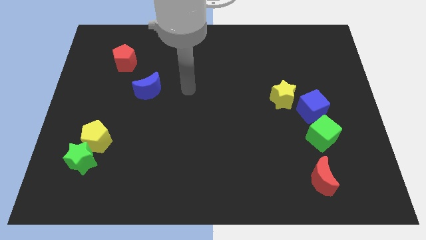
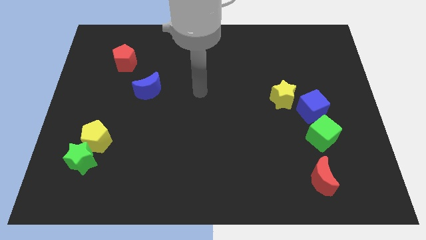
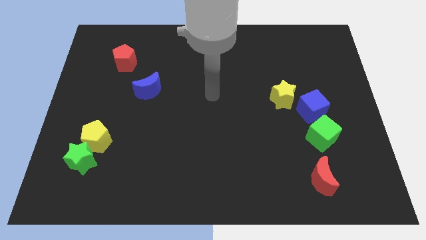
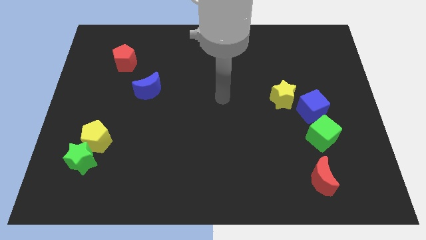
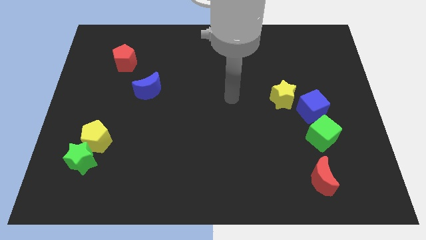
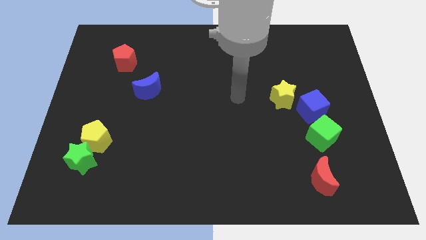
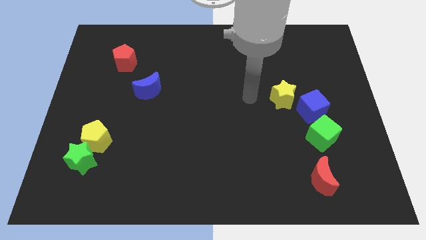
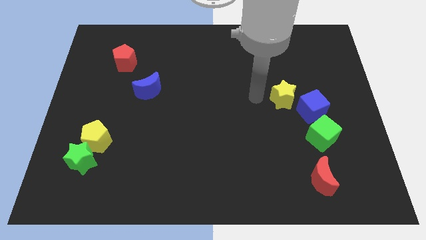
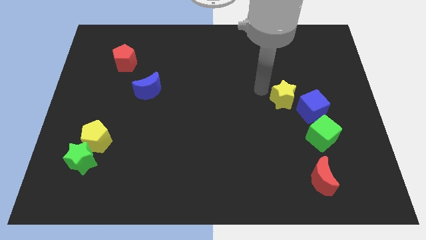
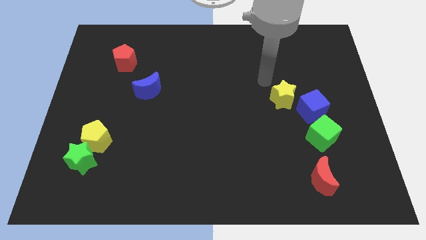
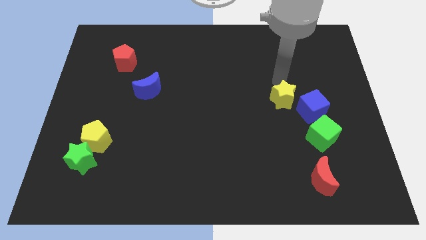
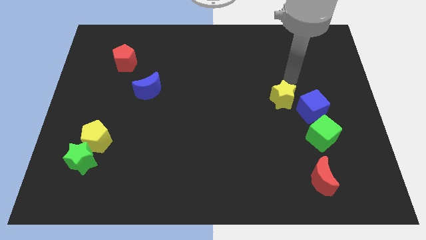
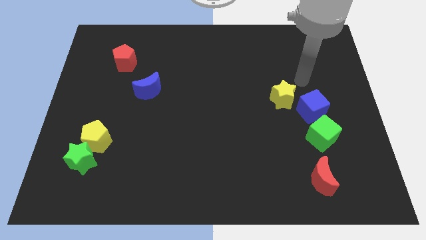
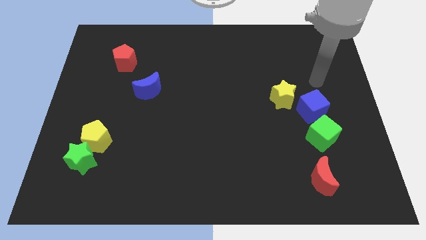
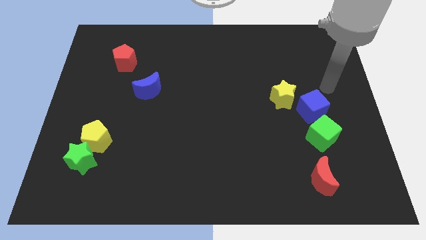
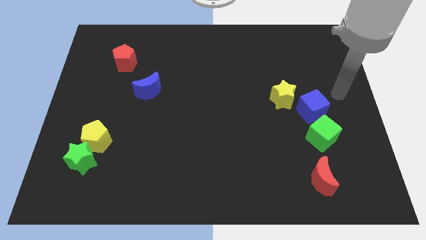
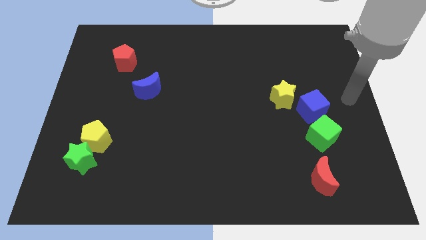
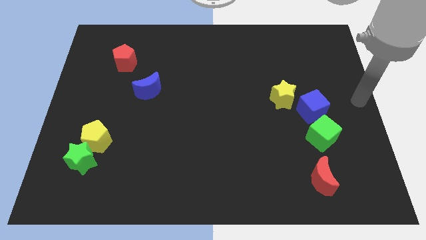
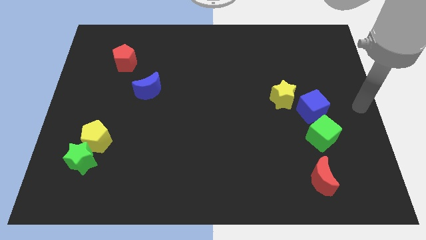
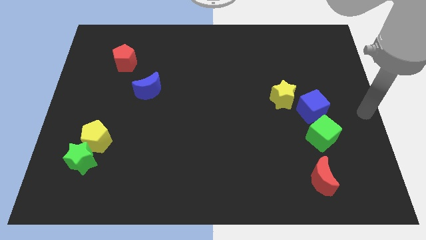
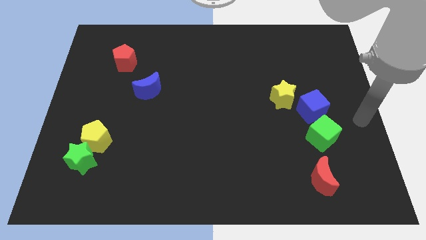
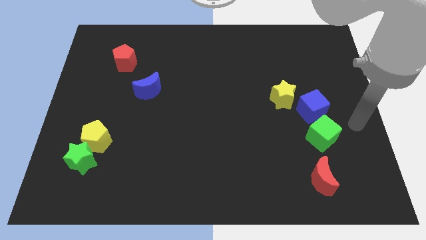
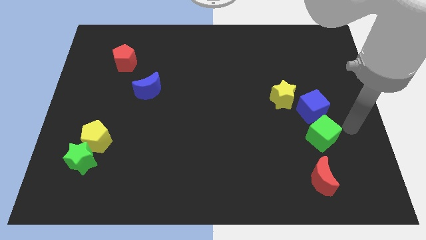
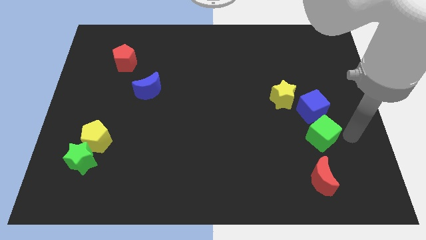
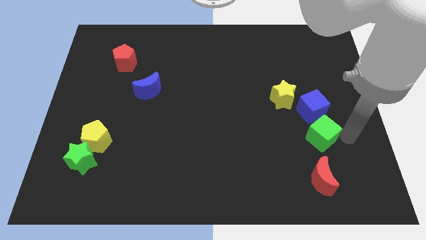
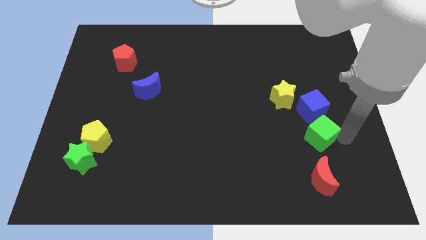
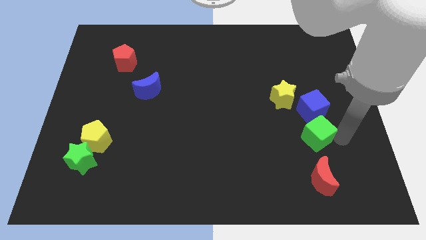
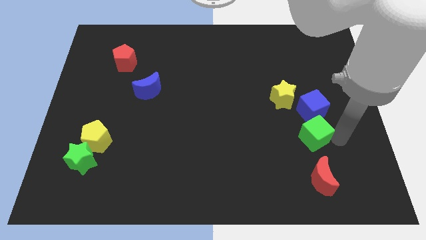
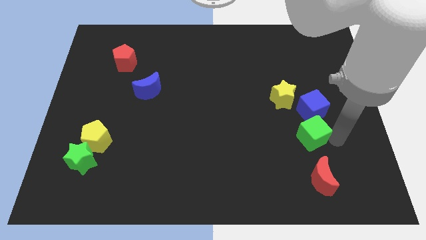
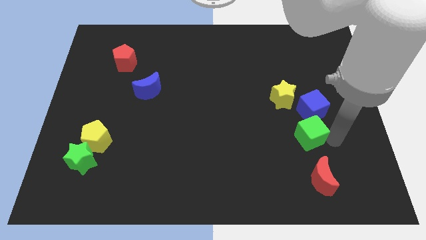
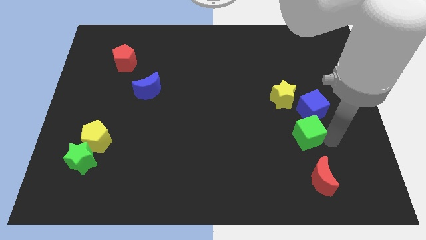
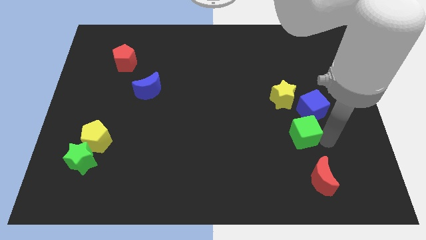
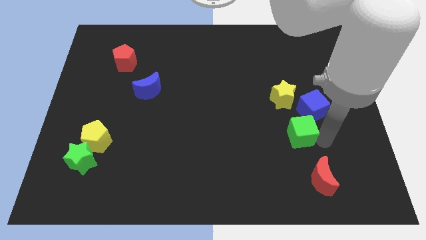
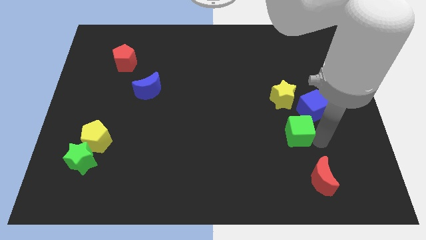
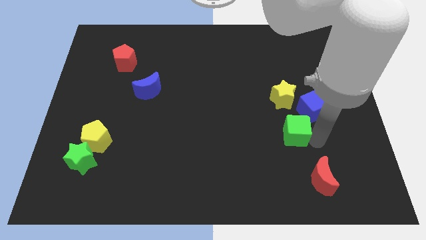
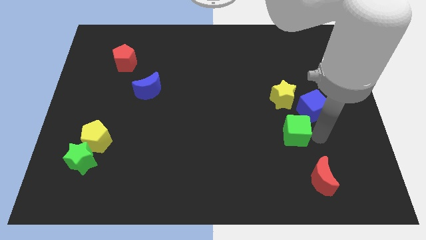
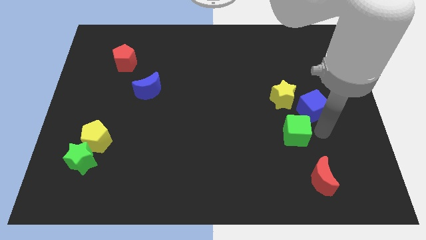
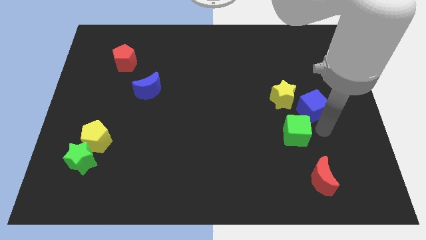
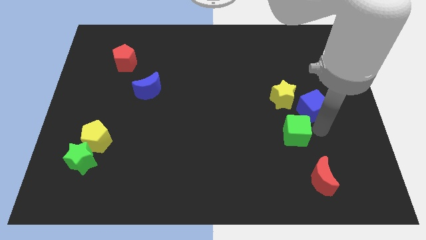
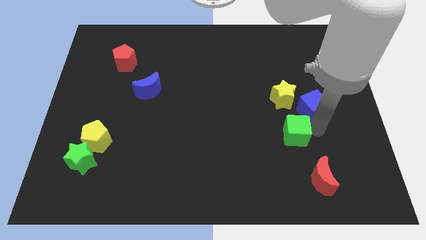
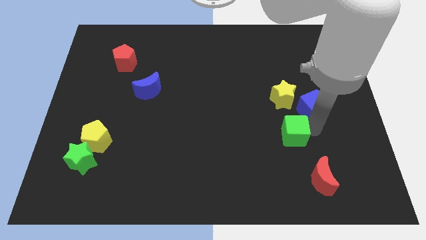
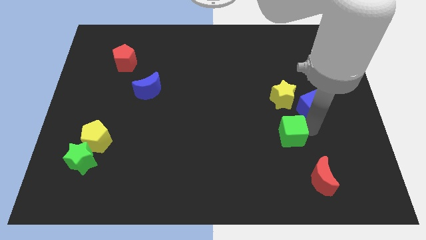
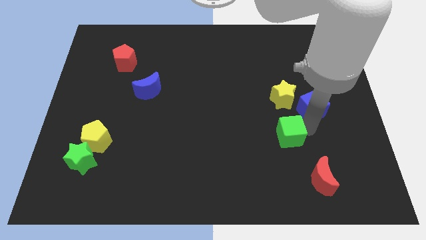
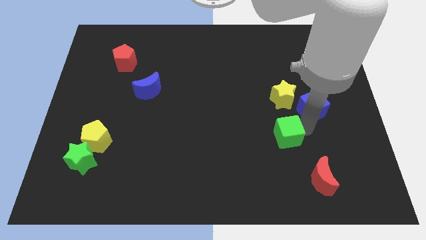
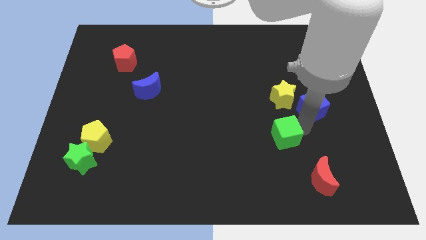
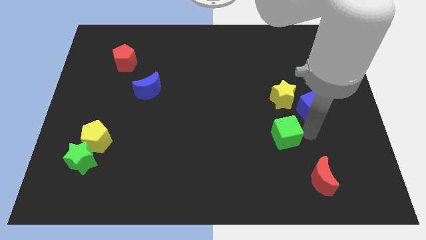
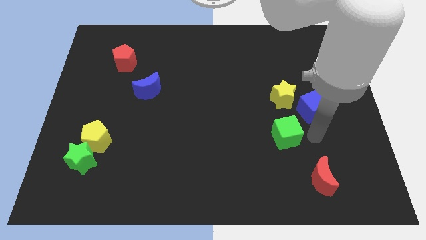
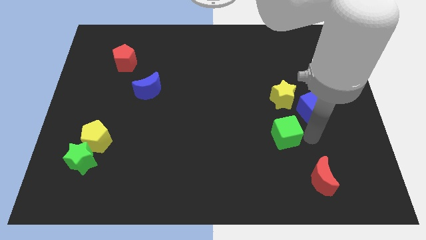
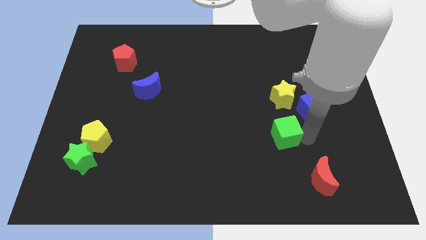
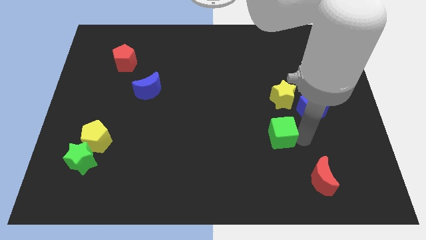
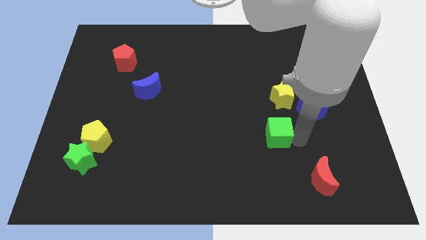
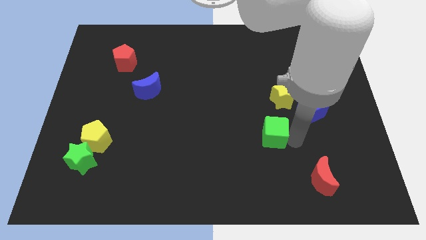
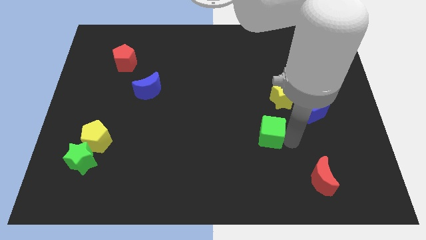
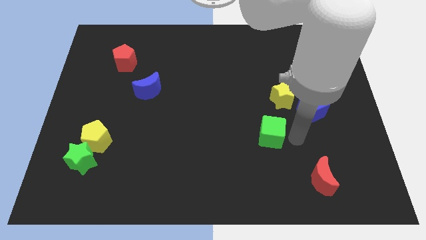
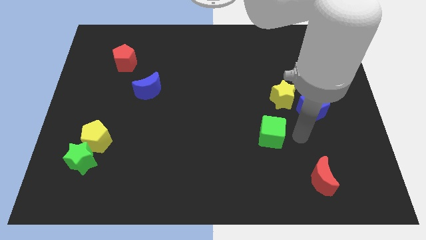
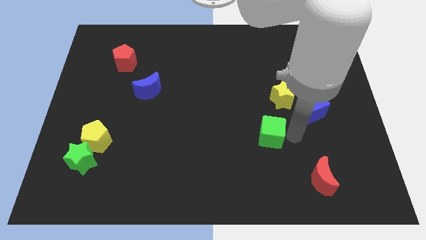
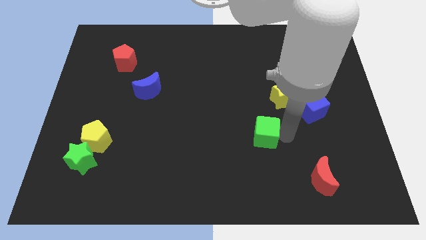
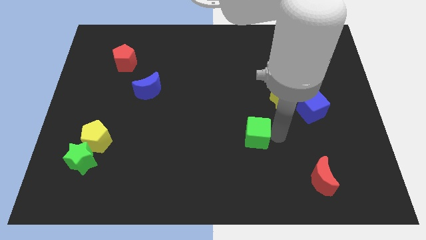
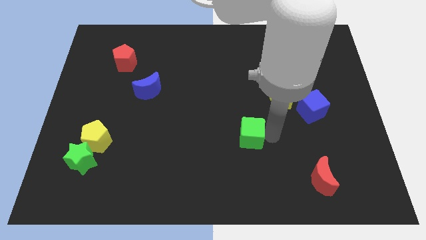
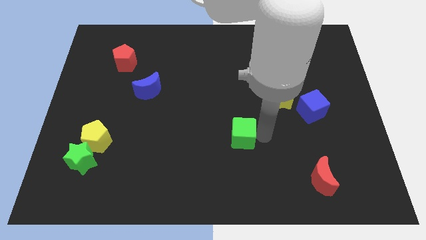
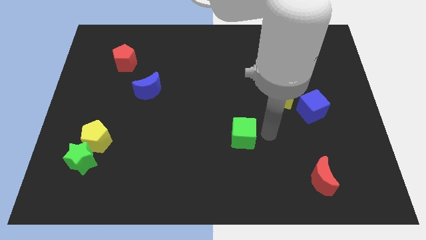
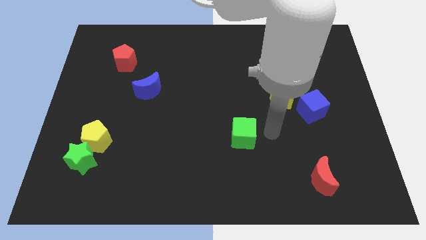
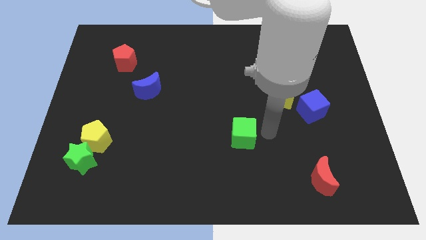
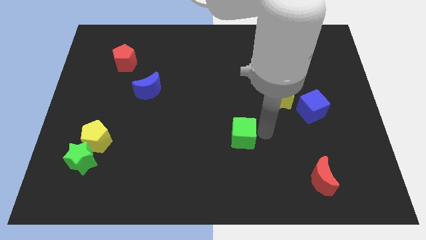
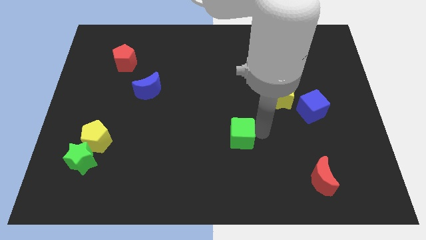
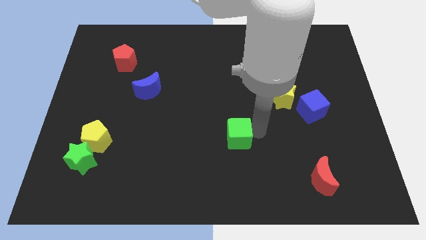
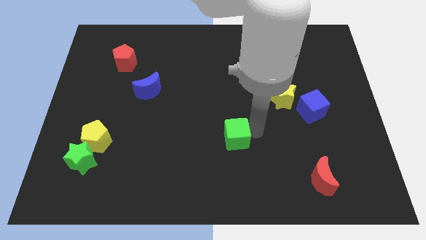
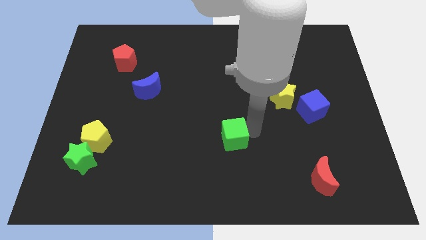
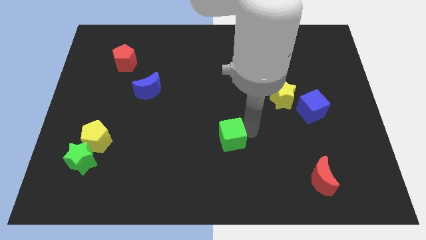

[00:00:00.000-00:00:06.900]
slide the green cube to the left

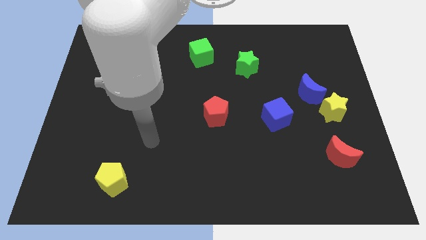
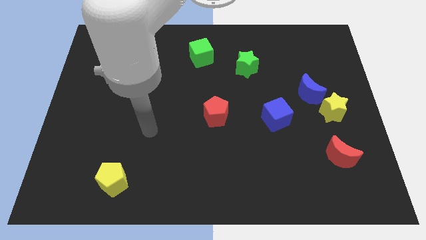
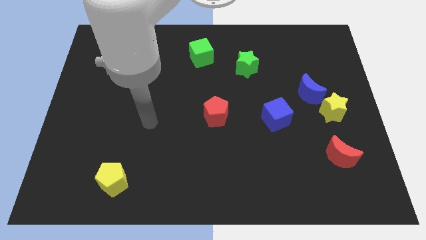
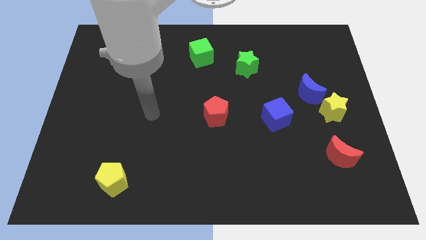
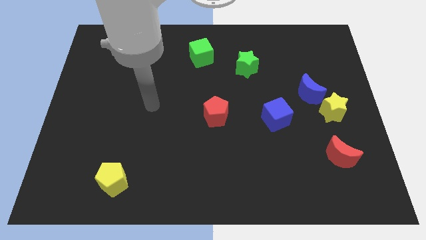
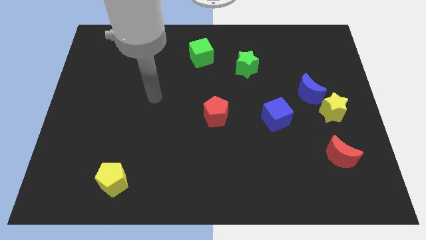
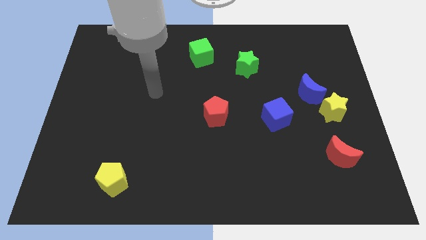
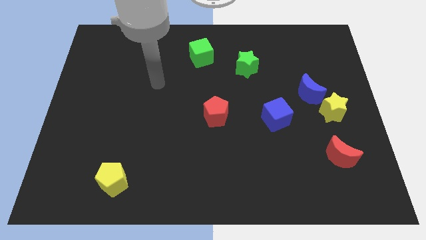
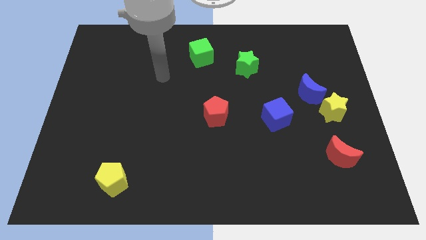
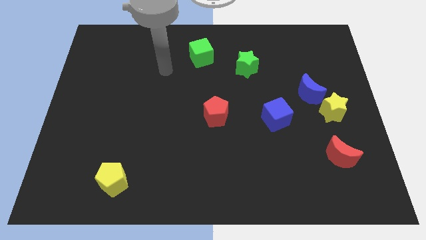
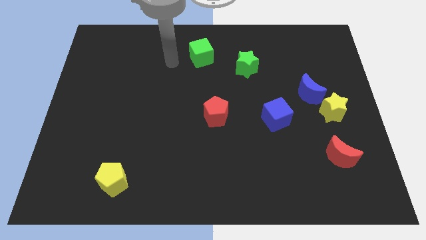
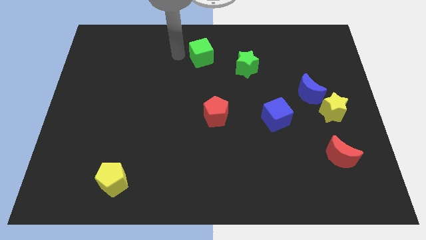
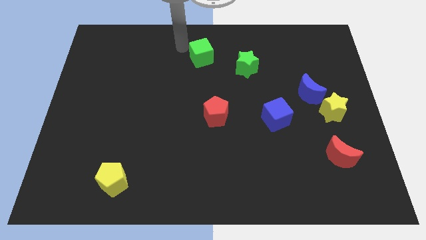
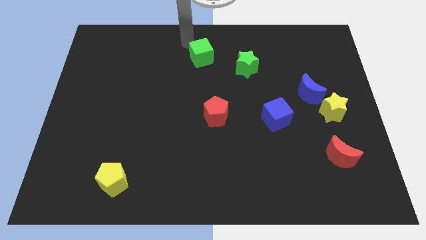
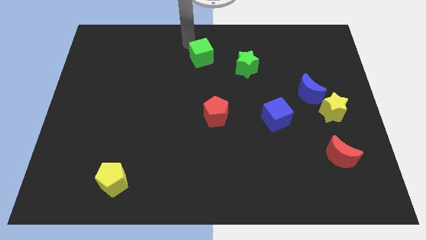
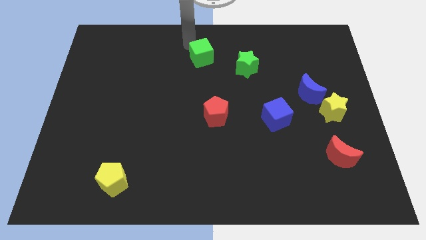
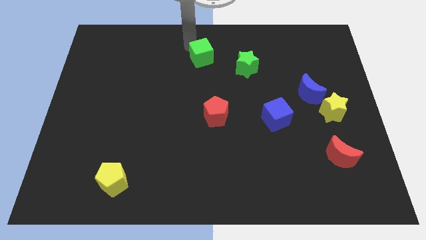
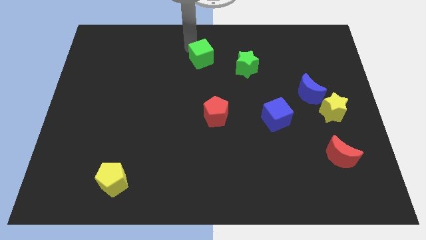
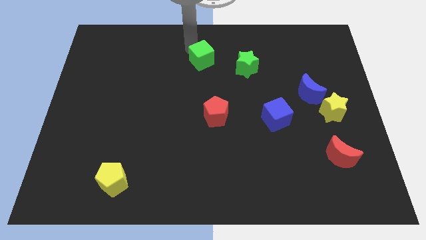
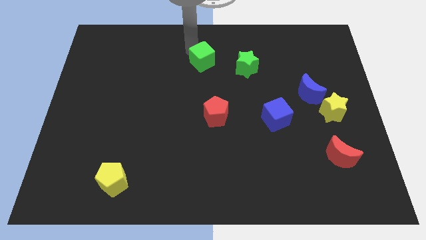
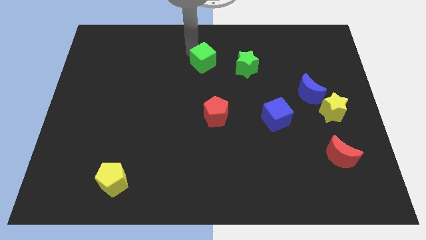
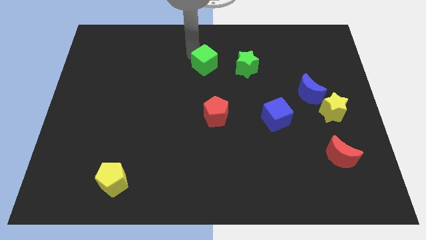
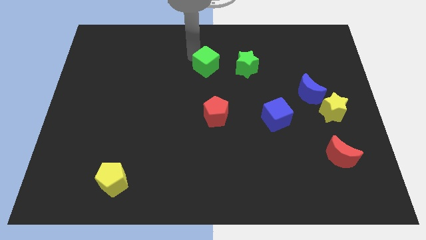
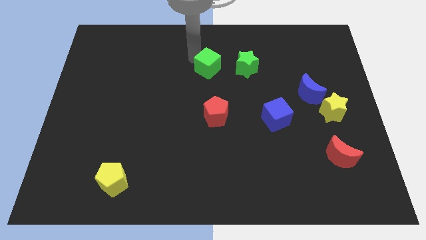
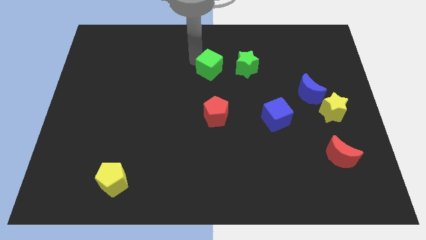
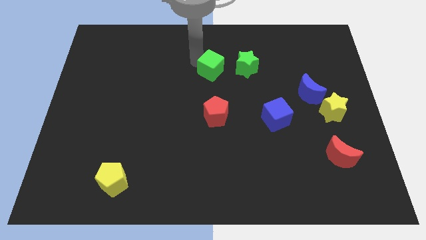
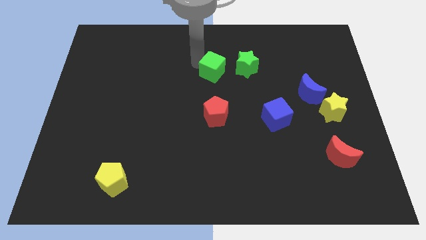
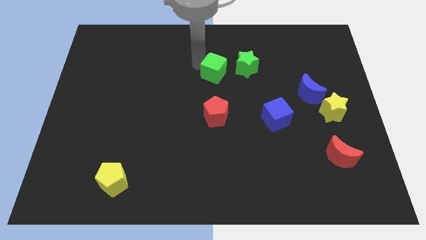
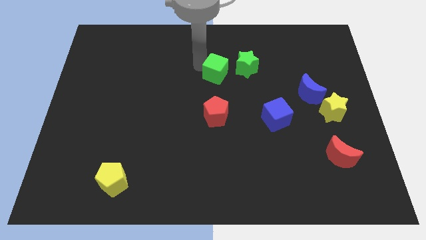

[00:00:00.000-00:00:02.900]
slightly move the green cube downwards and then right
